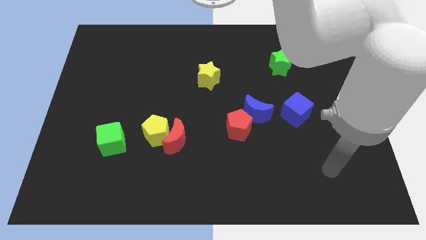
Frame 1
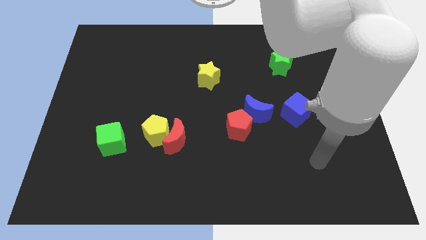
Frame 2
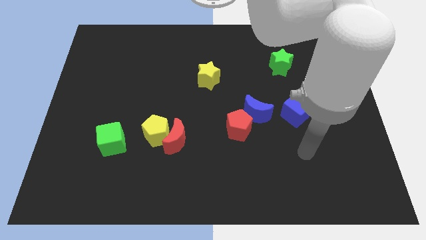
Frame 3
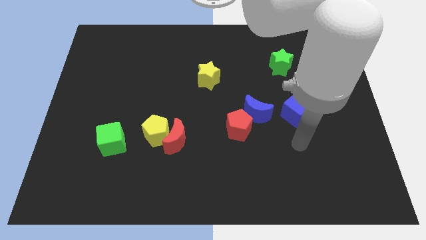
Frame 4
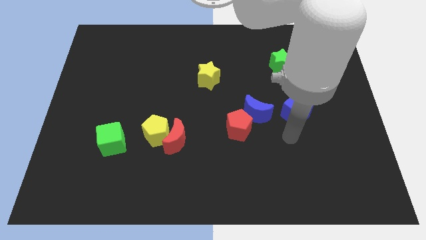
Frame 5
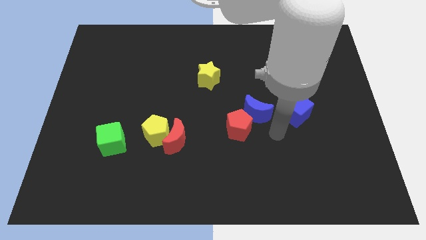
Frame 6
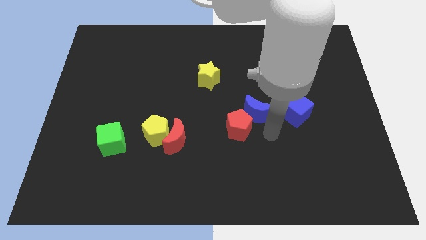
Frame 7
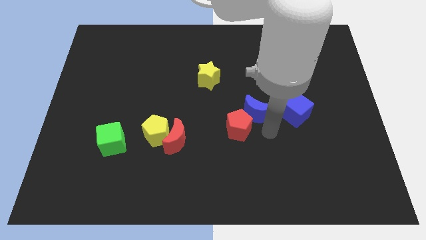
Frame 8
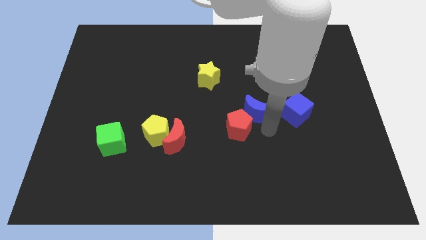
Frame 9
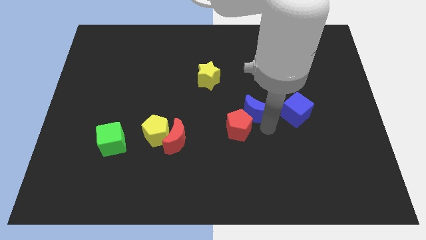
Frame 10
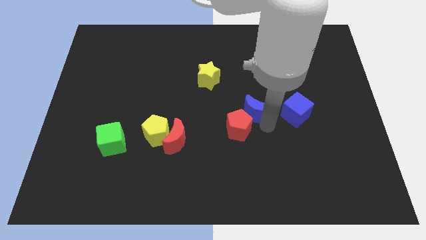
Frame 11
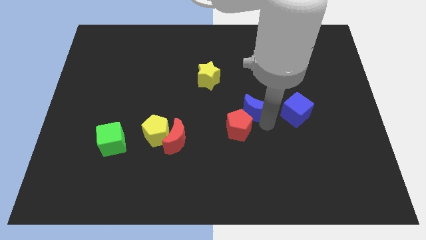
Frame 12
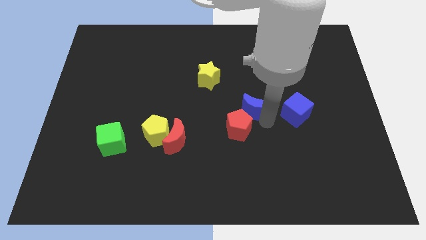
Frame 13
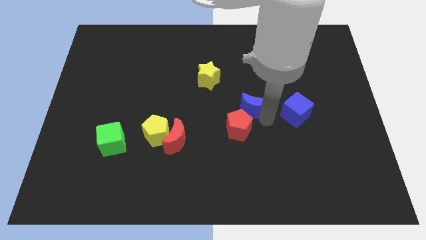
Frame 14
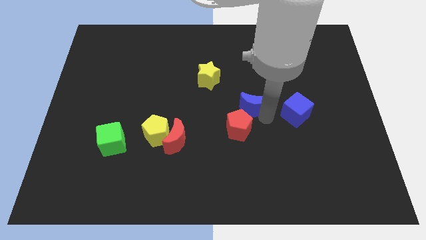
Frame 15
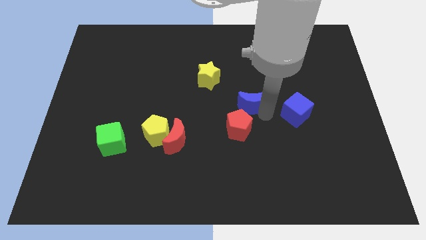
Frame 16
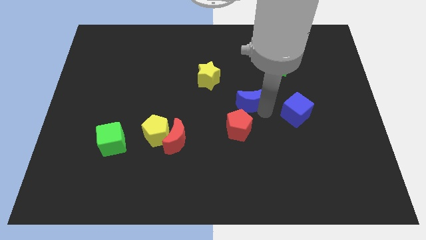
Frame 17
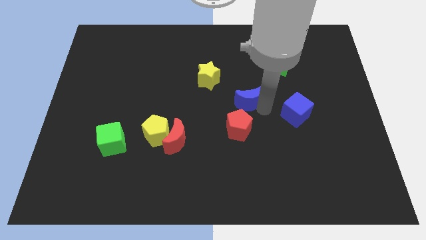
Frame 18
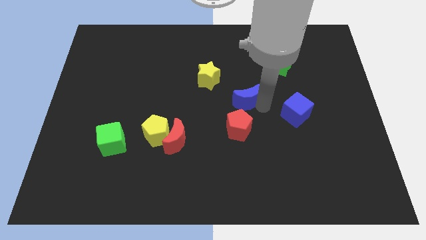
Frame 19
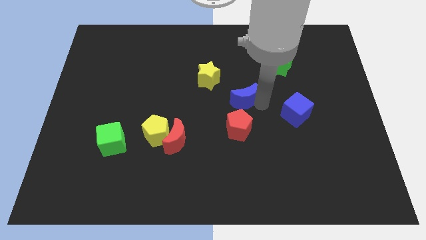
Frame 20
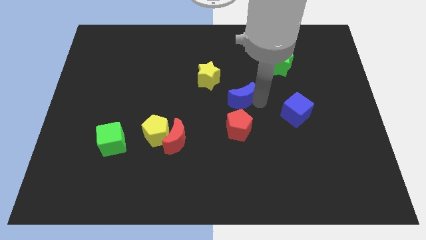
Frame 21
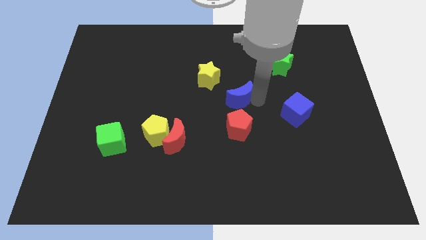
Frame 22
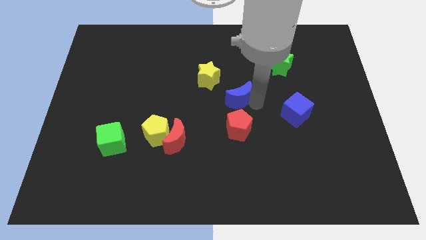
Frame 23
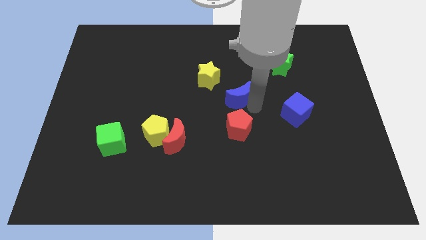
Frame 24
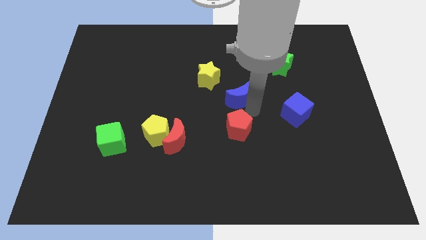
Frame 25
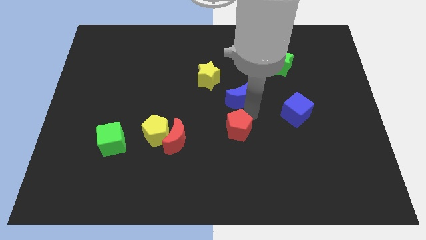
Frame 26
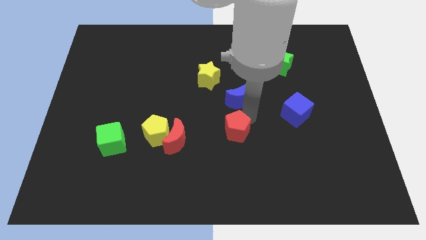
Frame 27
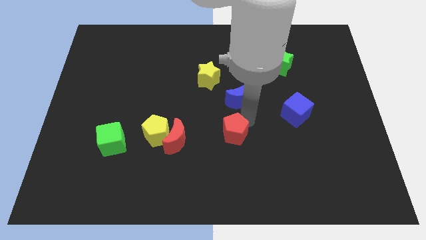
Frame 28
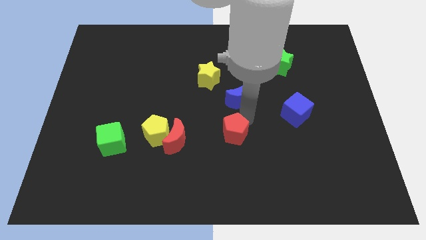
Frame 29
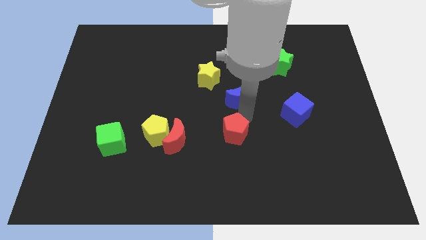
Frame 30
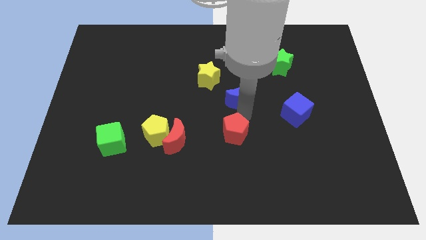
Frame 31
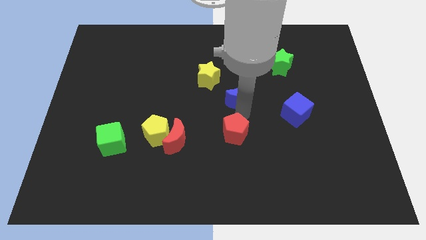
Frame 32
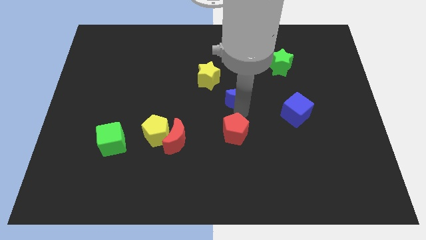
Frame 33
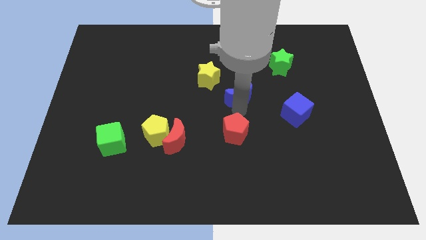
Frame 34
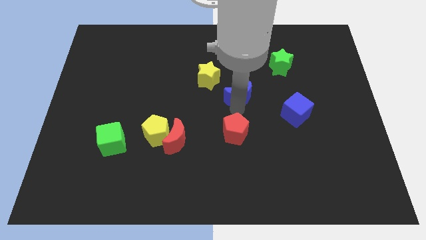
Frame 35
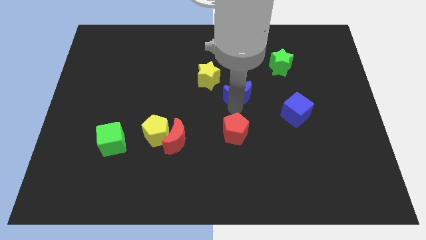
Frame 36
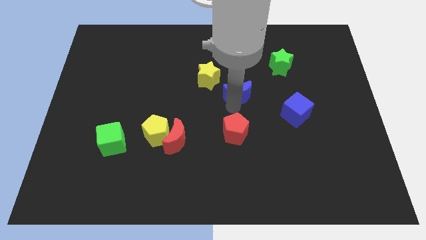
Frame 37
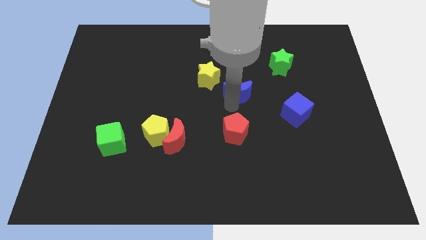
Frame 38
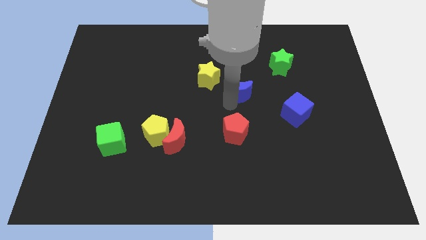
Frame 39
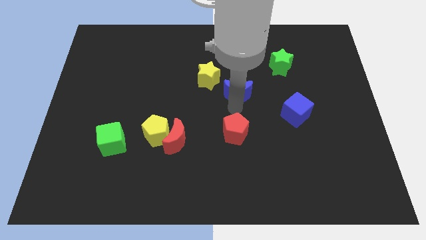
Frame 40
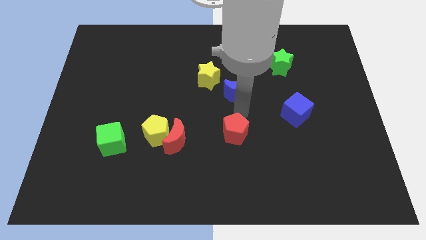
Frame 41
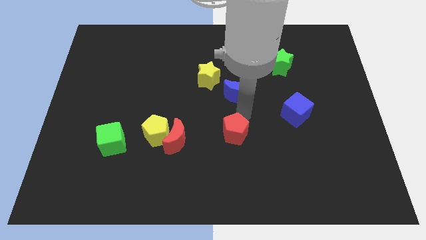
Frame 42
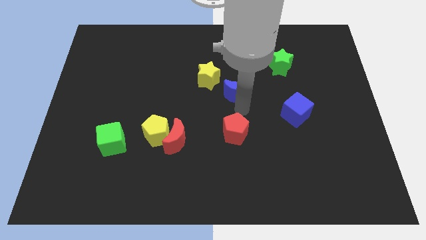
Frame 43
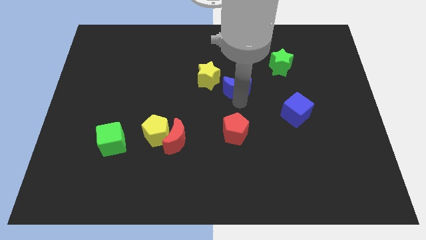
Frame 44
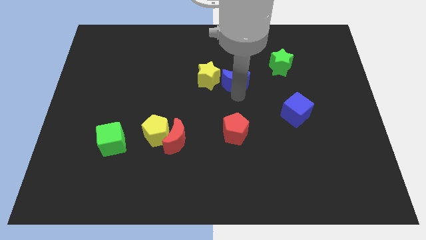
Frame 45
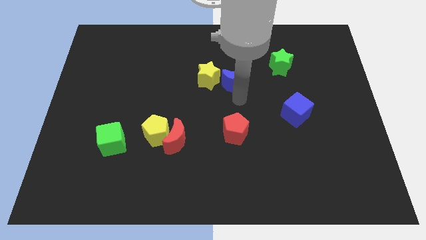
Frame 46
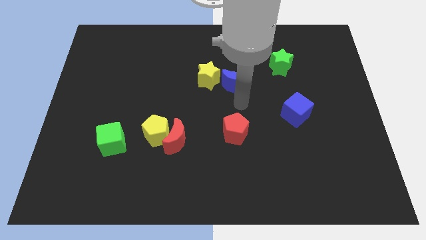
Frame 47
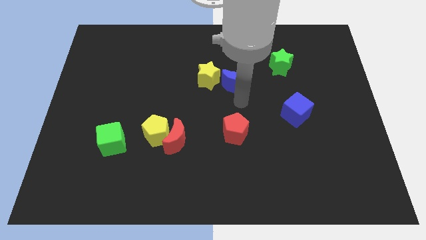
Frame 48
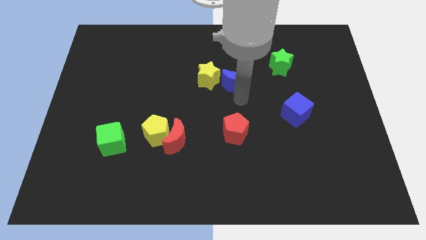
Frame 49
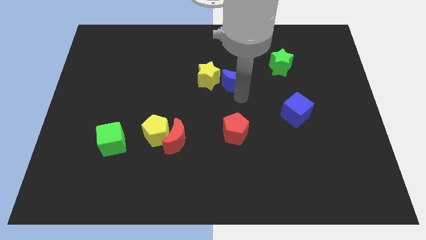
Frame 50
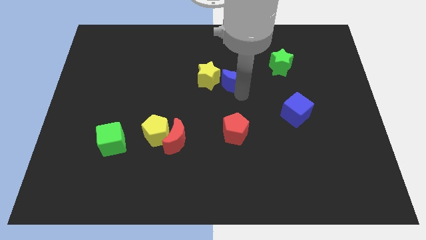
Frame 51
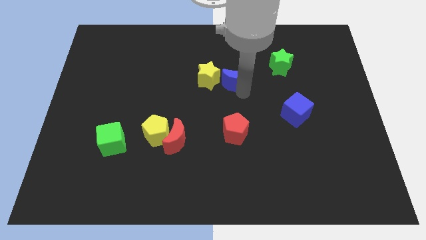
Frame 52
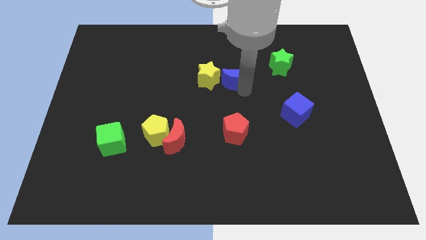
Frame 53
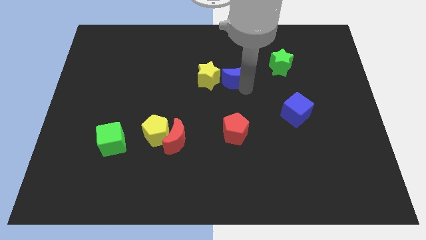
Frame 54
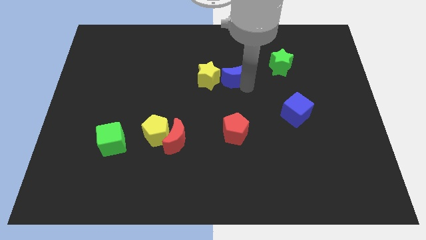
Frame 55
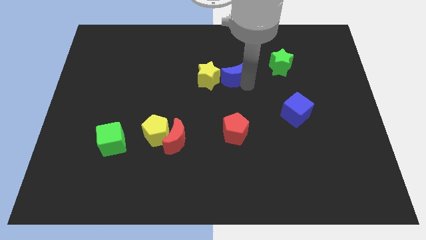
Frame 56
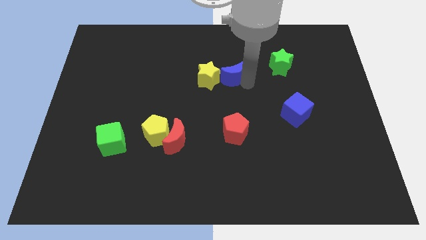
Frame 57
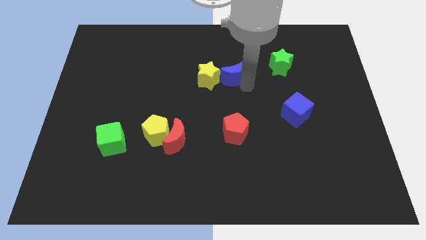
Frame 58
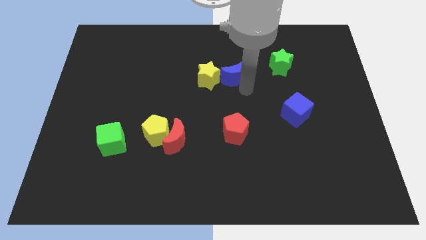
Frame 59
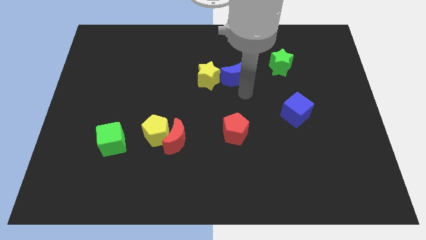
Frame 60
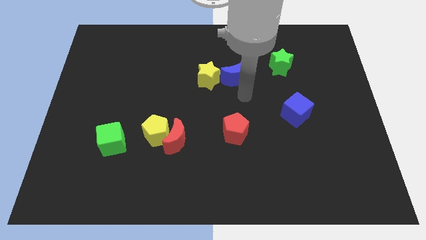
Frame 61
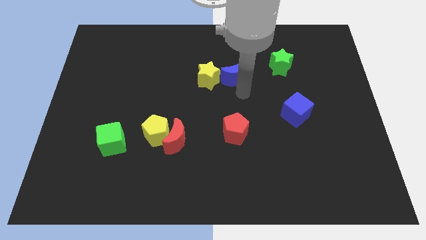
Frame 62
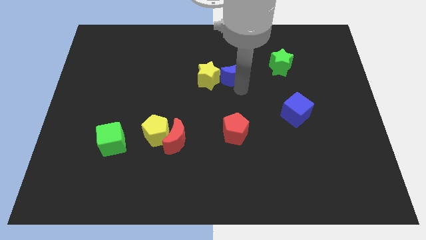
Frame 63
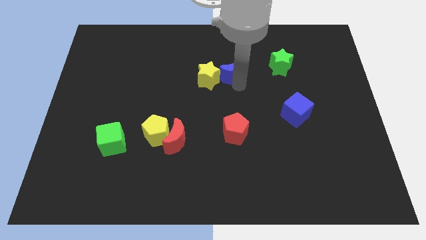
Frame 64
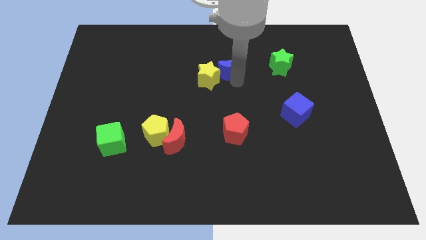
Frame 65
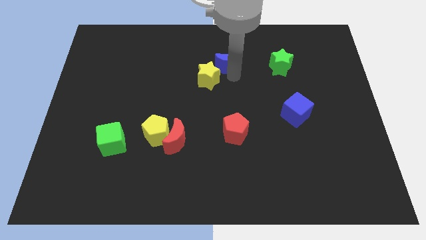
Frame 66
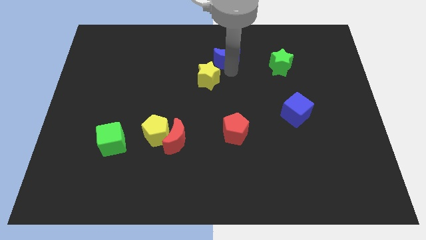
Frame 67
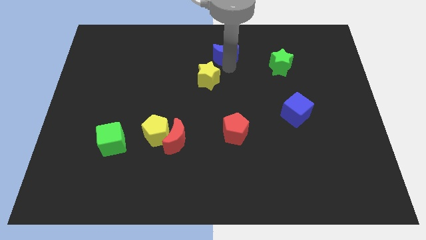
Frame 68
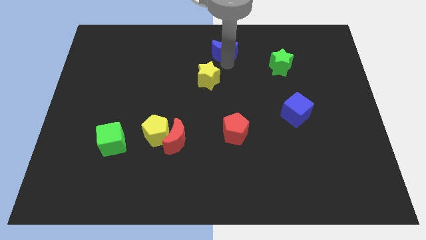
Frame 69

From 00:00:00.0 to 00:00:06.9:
move the blue moon to the top
